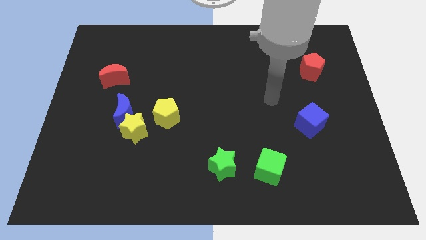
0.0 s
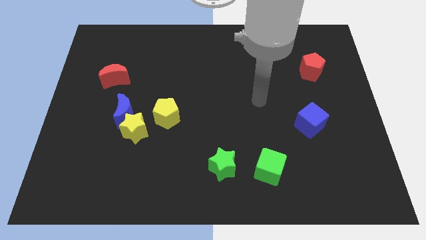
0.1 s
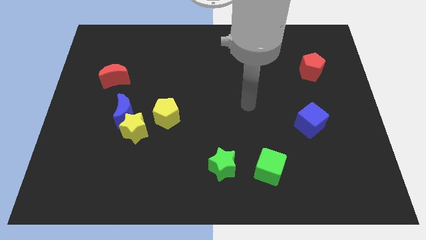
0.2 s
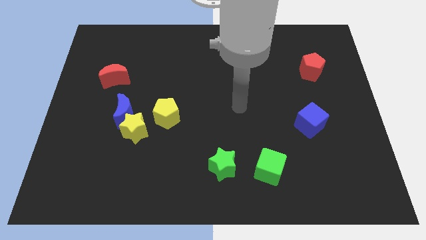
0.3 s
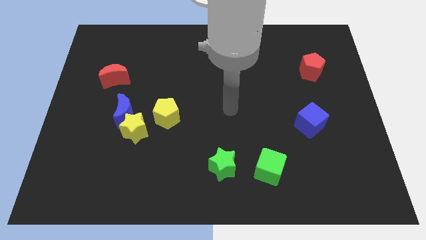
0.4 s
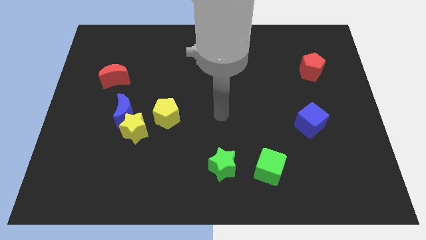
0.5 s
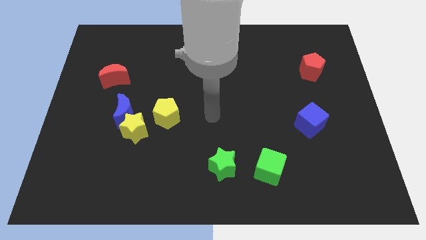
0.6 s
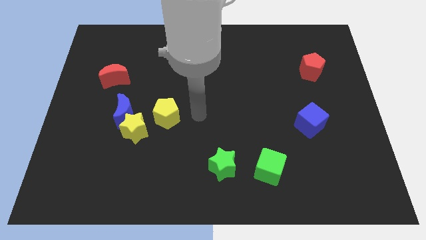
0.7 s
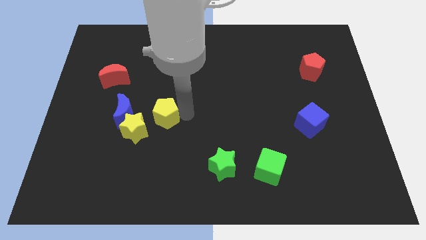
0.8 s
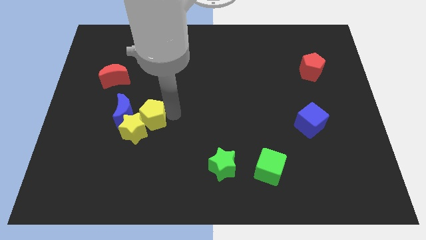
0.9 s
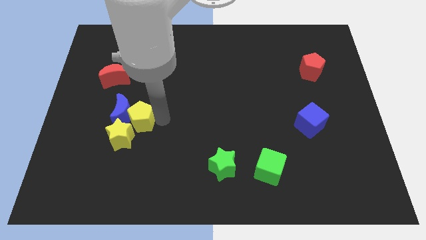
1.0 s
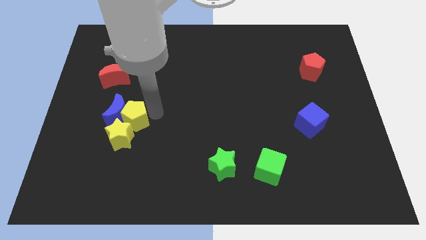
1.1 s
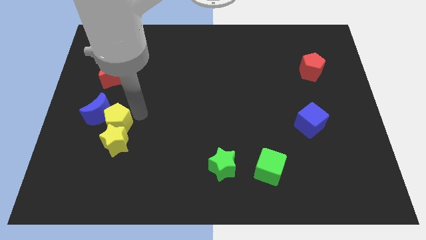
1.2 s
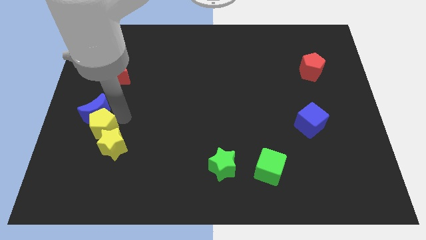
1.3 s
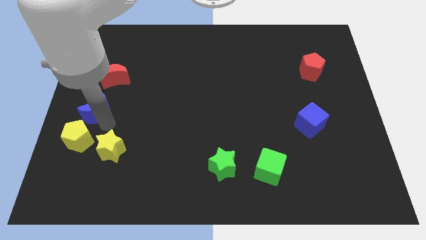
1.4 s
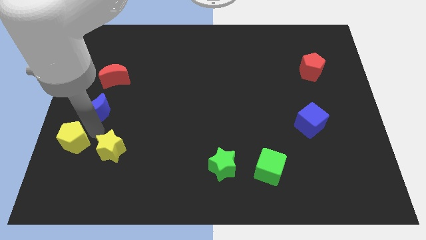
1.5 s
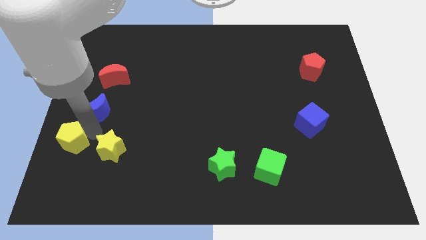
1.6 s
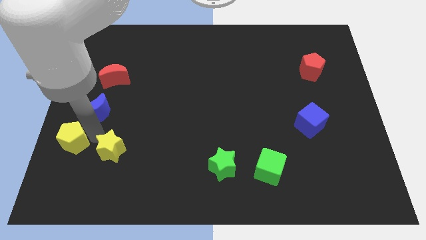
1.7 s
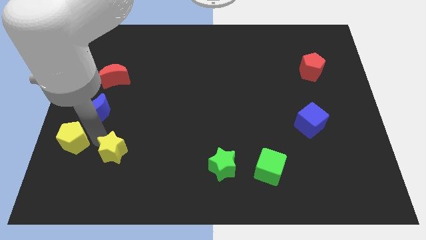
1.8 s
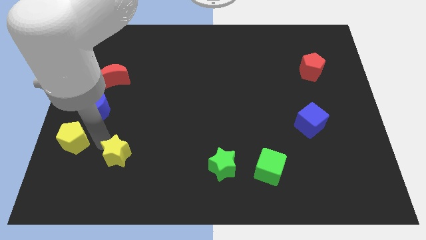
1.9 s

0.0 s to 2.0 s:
pull the yellow star apart from the blue moon and yellow pentagon

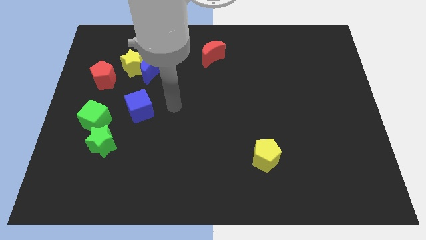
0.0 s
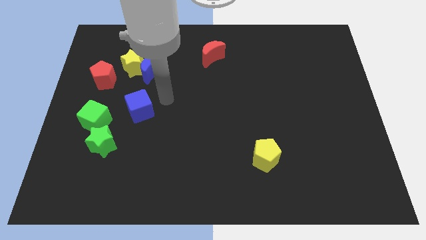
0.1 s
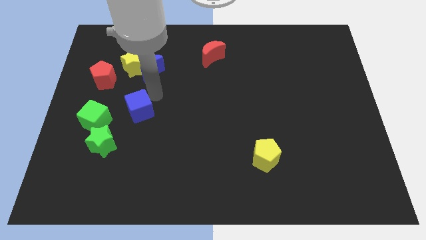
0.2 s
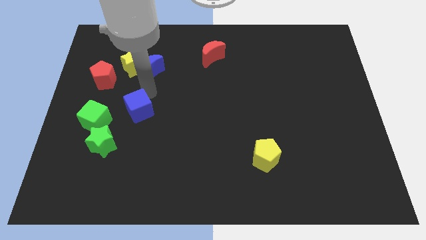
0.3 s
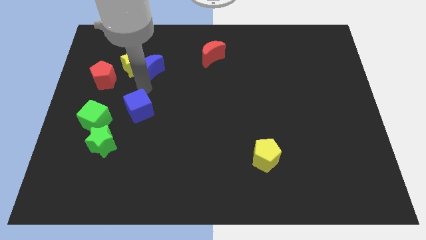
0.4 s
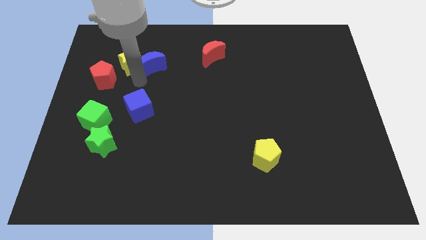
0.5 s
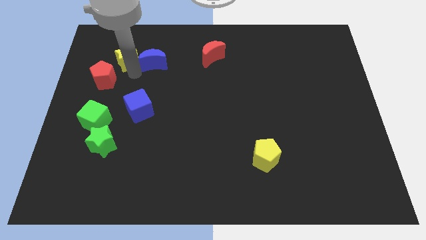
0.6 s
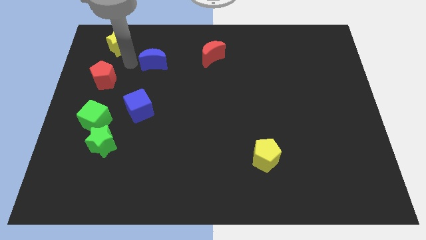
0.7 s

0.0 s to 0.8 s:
move the blue moon away from the yellow star

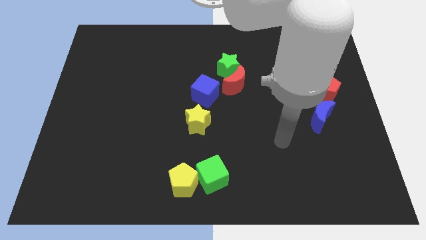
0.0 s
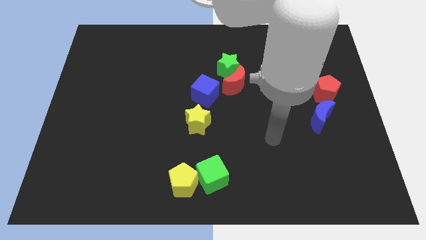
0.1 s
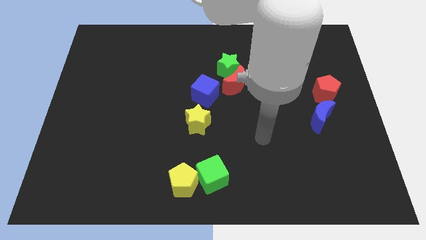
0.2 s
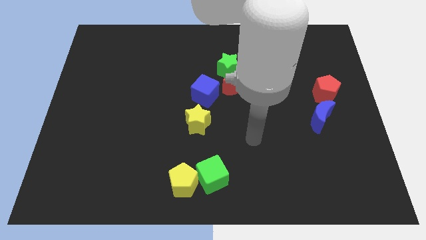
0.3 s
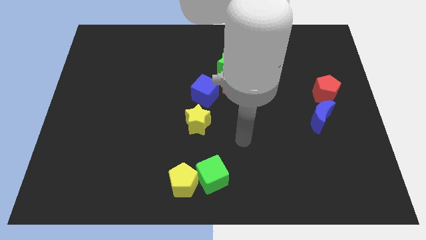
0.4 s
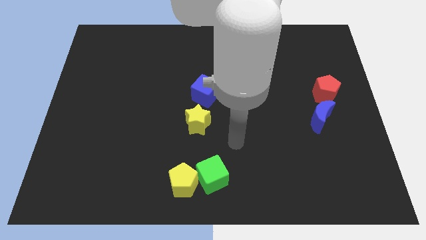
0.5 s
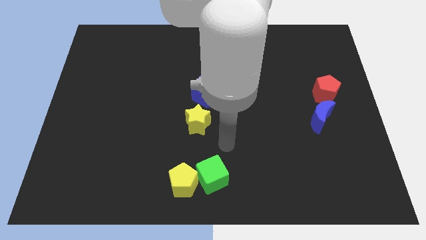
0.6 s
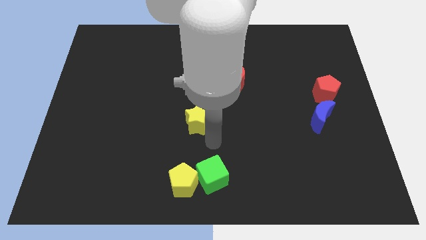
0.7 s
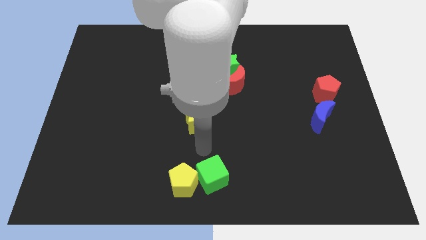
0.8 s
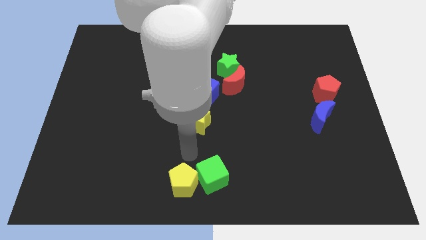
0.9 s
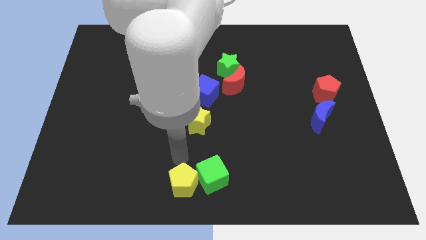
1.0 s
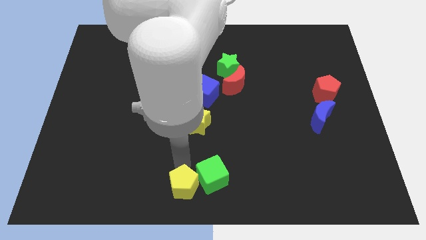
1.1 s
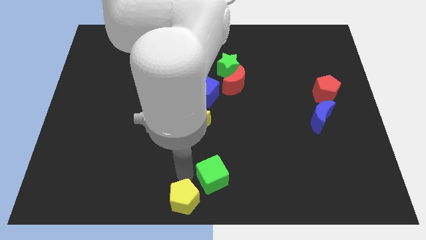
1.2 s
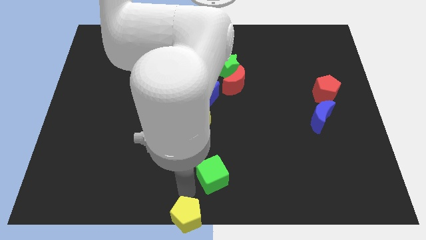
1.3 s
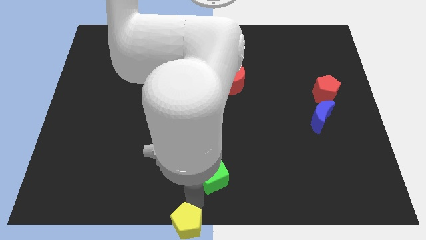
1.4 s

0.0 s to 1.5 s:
pull the green cube apart from the yellow pentagon

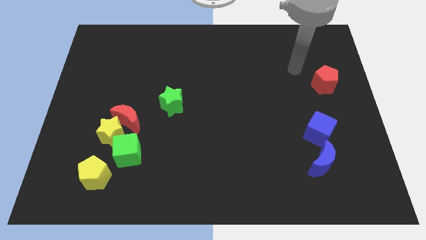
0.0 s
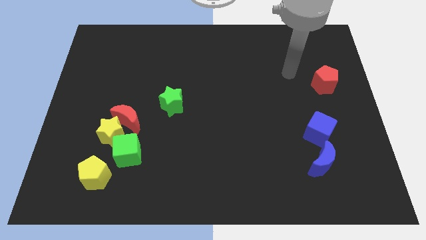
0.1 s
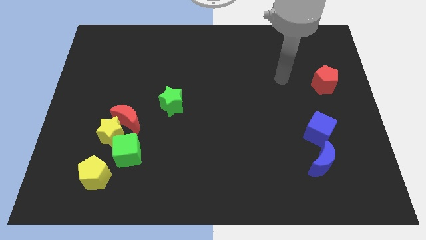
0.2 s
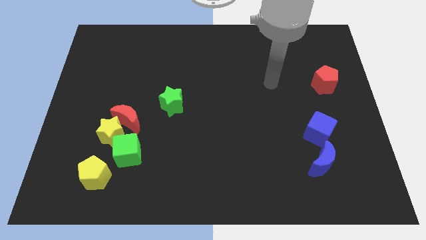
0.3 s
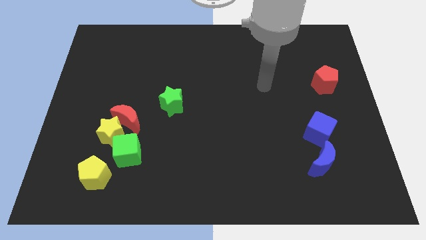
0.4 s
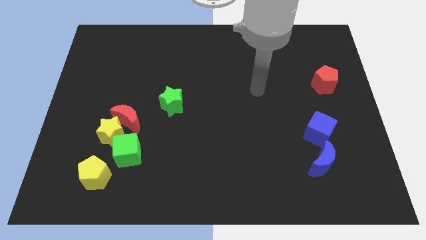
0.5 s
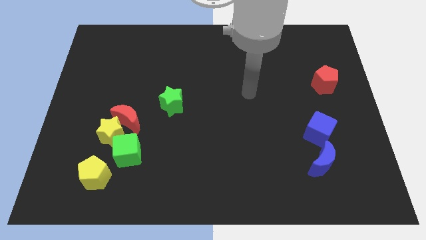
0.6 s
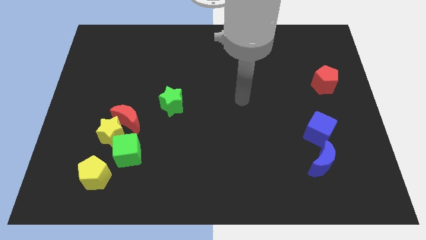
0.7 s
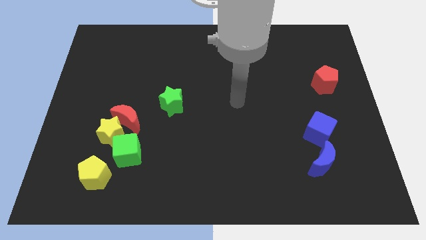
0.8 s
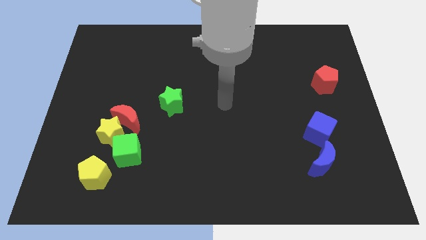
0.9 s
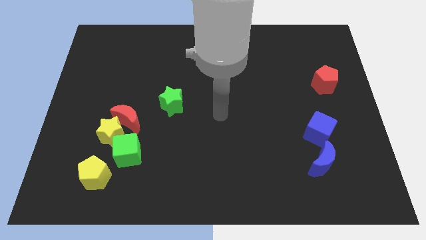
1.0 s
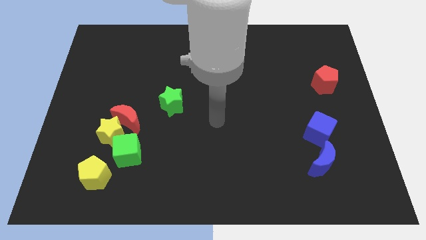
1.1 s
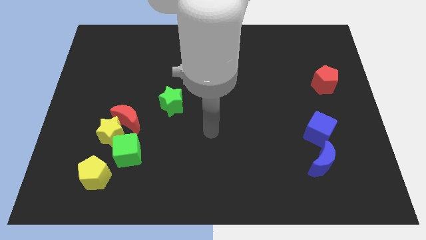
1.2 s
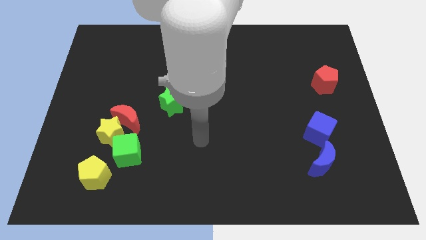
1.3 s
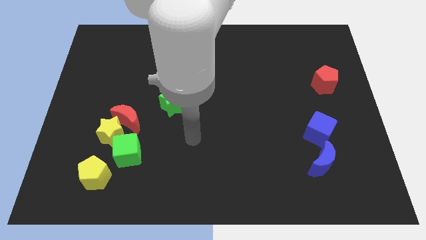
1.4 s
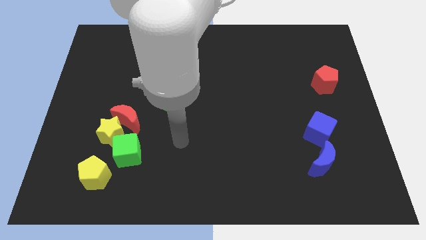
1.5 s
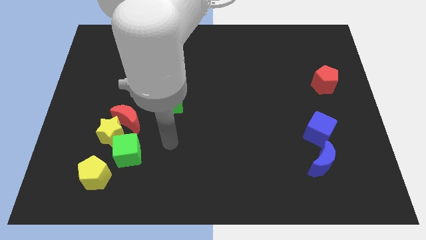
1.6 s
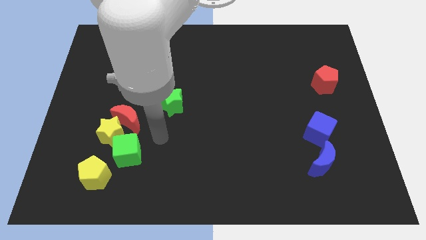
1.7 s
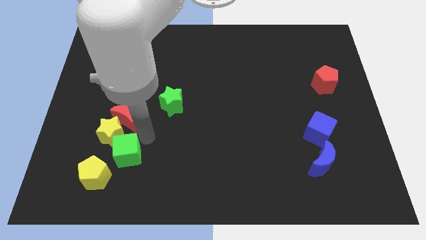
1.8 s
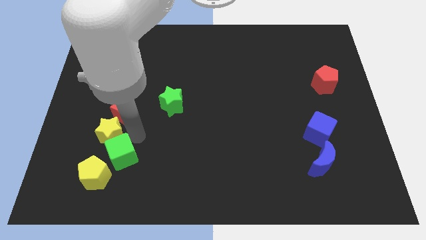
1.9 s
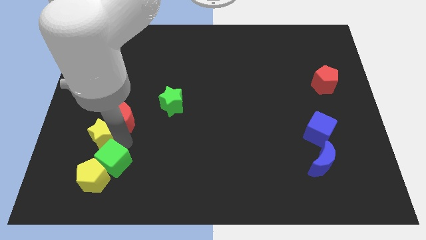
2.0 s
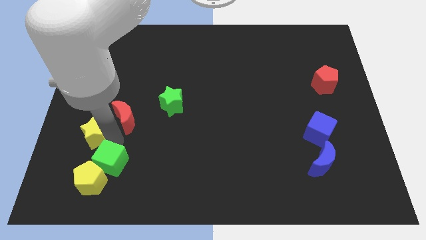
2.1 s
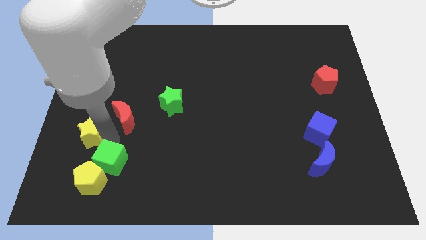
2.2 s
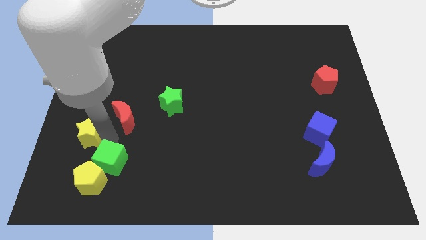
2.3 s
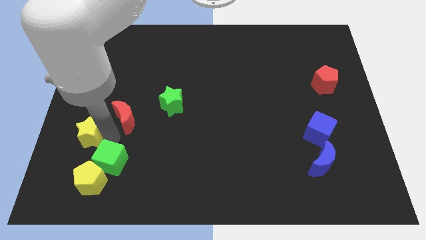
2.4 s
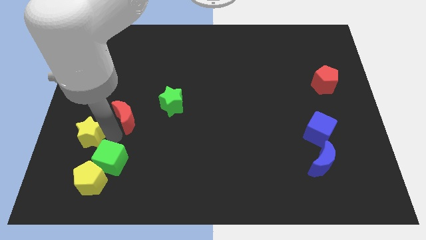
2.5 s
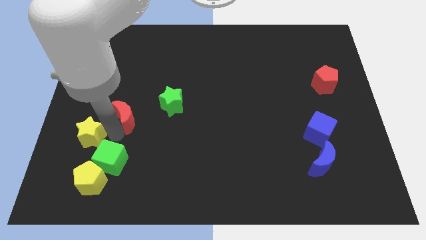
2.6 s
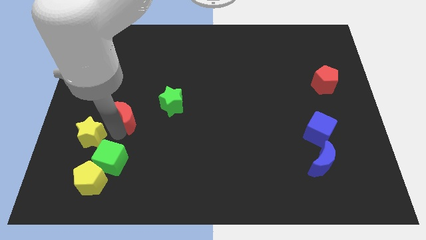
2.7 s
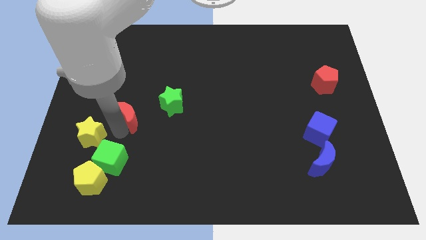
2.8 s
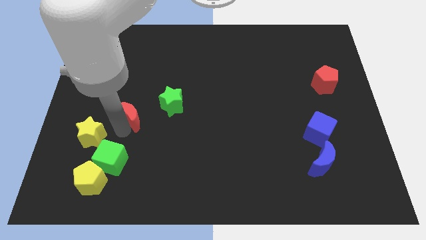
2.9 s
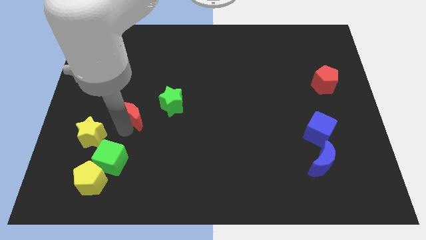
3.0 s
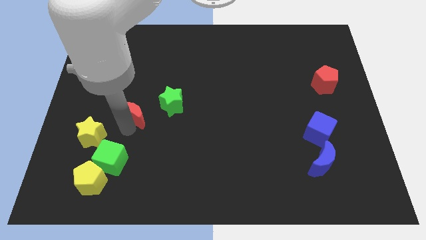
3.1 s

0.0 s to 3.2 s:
separate the red moon from the yellow star and green cube

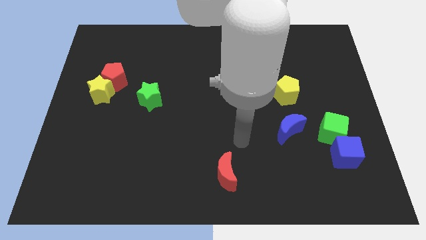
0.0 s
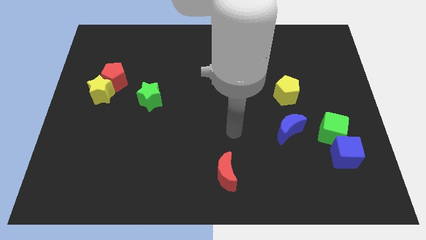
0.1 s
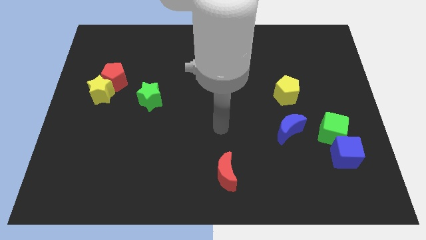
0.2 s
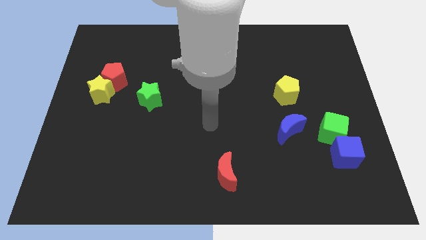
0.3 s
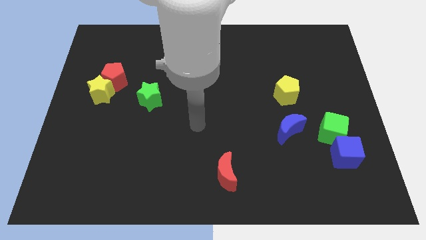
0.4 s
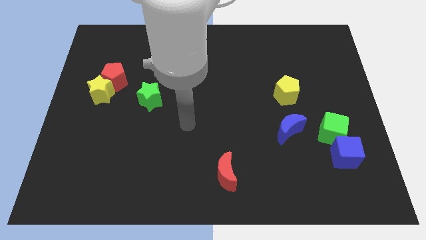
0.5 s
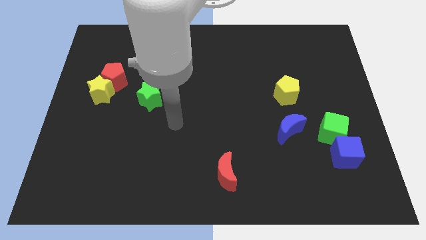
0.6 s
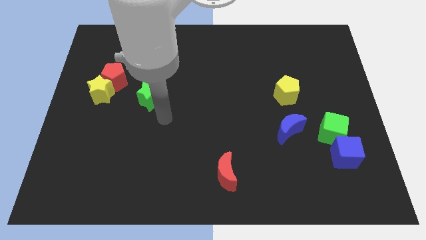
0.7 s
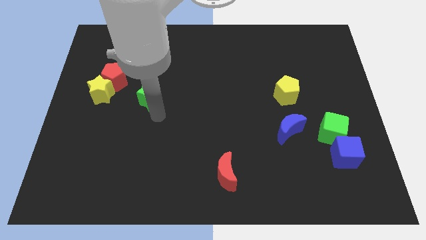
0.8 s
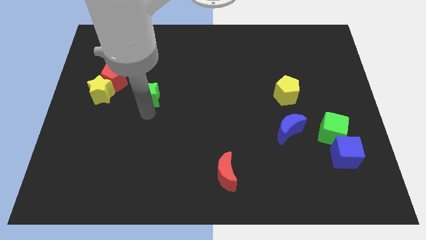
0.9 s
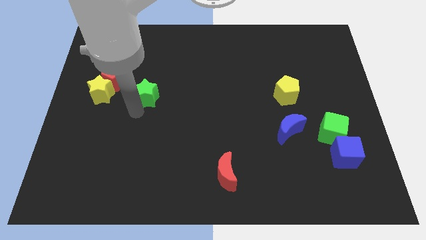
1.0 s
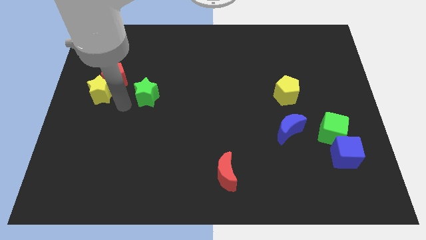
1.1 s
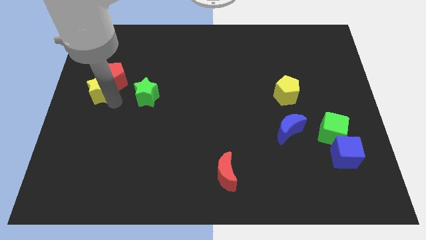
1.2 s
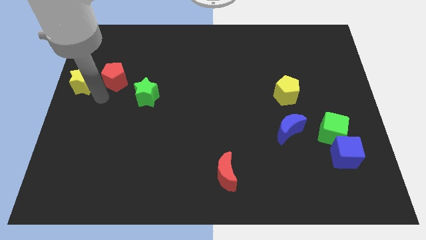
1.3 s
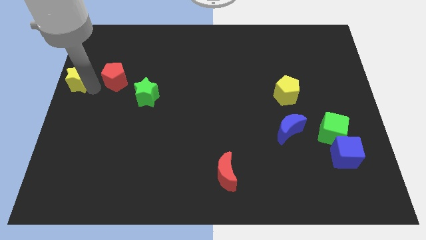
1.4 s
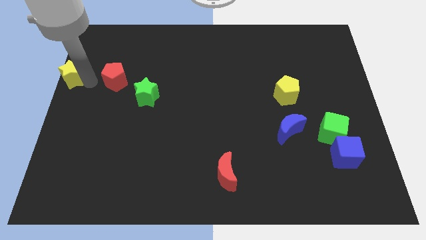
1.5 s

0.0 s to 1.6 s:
move the red pentagon away from the yellow star

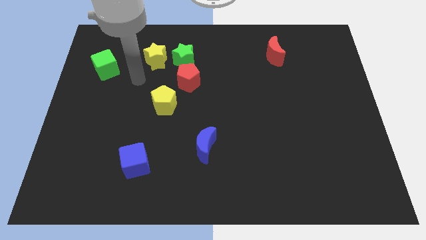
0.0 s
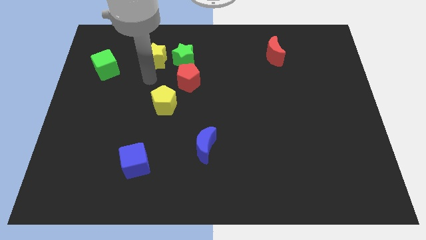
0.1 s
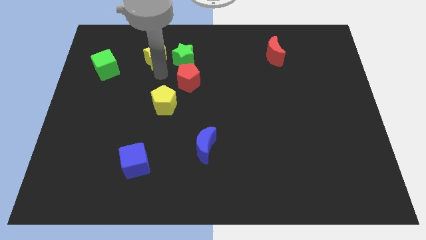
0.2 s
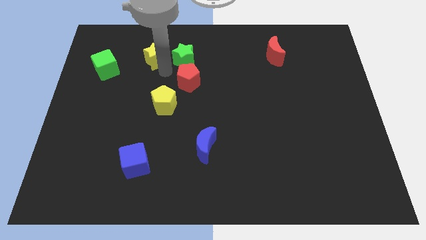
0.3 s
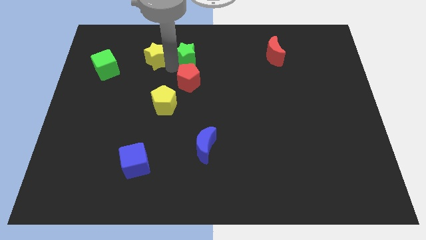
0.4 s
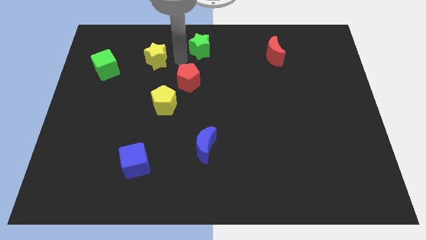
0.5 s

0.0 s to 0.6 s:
pull the yellow star apart from the green star
